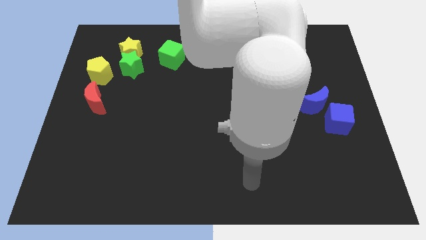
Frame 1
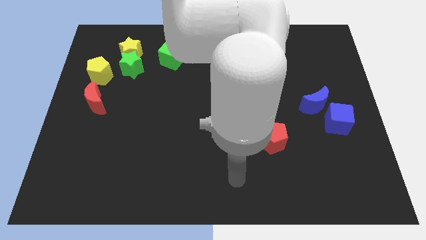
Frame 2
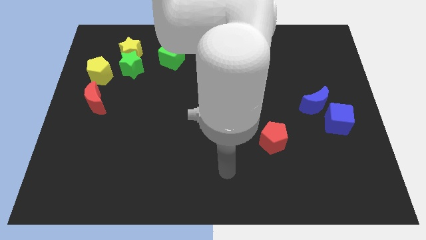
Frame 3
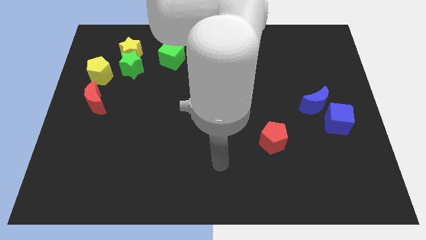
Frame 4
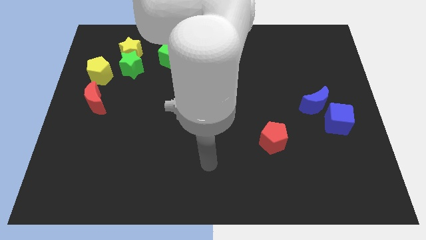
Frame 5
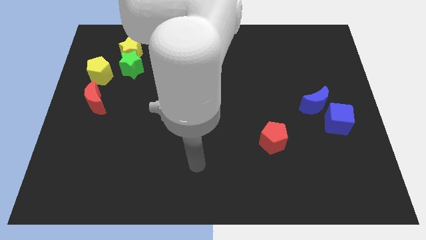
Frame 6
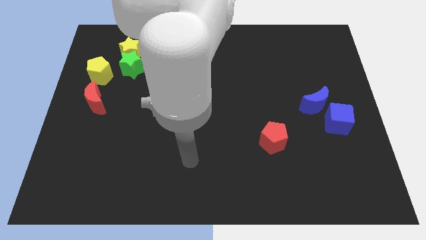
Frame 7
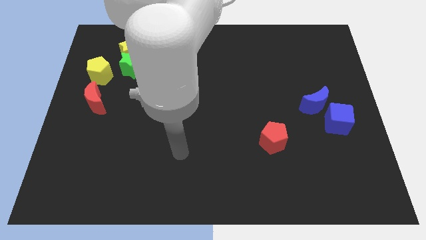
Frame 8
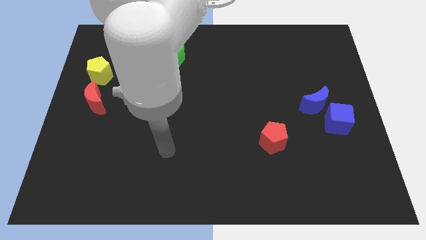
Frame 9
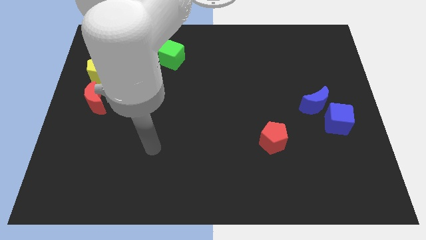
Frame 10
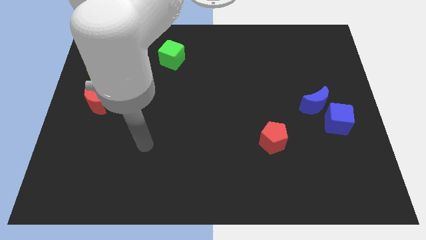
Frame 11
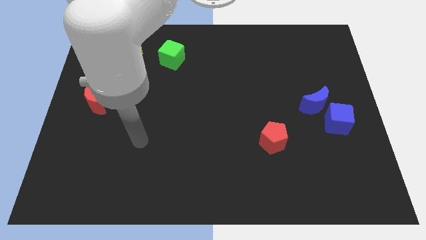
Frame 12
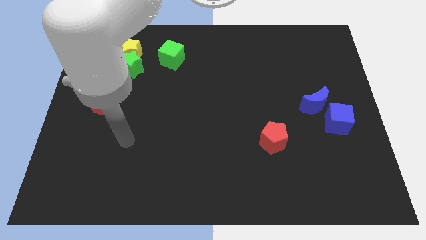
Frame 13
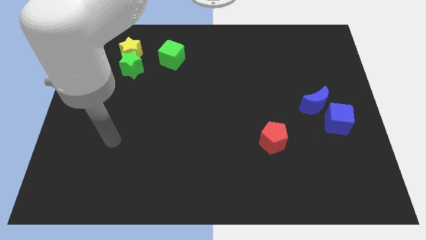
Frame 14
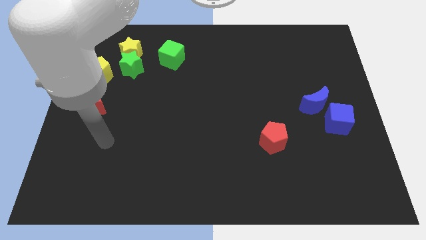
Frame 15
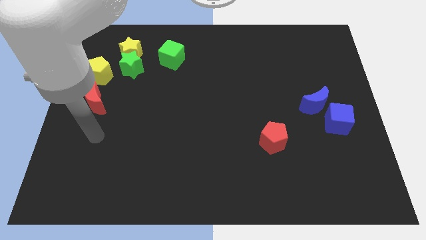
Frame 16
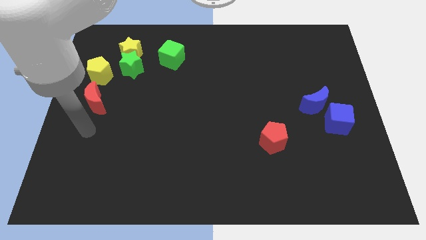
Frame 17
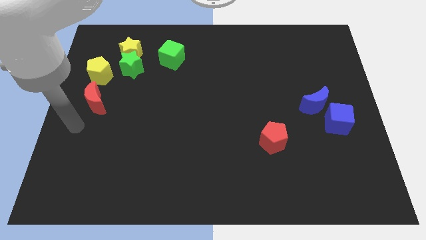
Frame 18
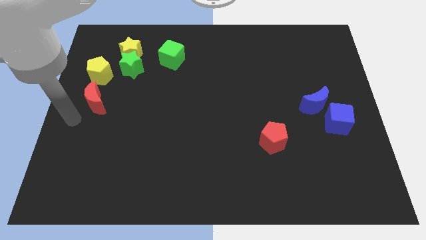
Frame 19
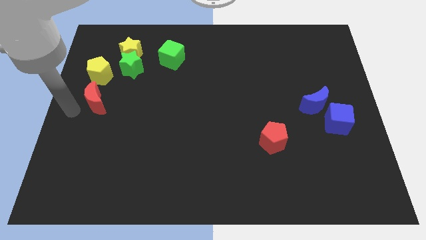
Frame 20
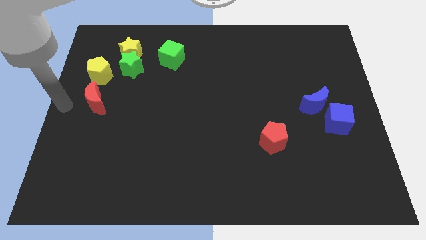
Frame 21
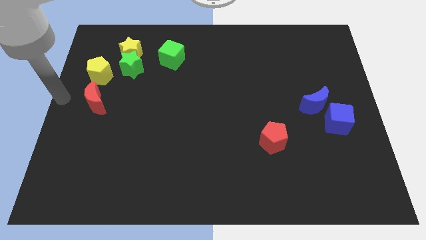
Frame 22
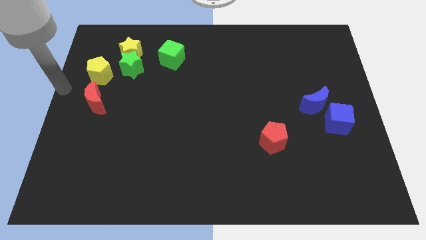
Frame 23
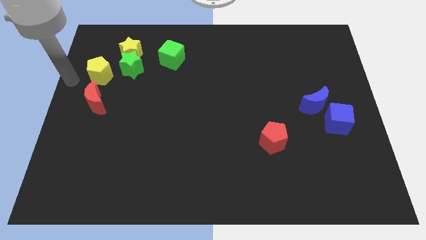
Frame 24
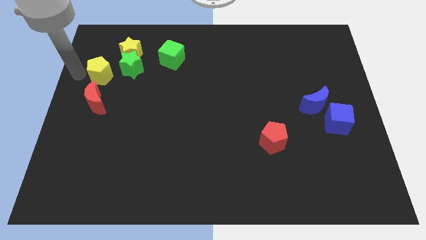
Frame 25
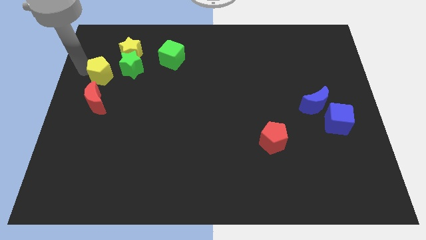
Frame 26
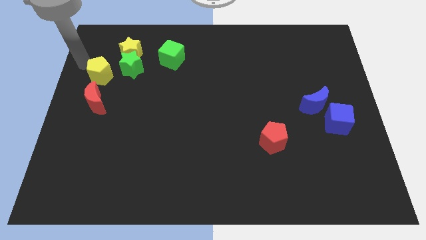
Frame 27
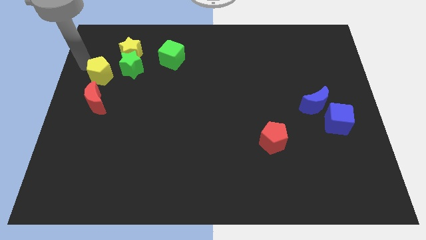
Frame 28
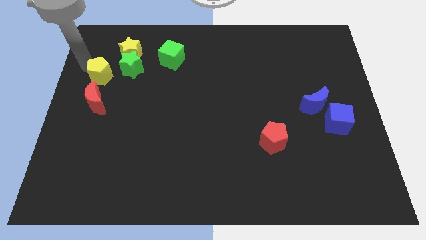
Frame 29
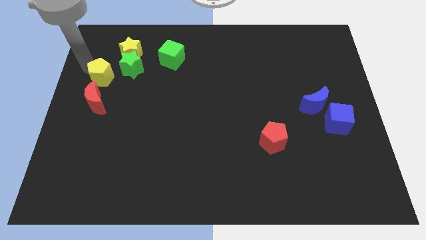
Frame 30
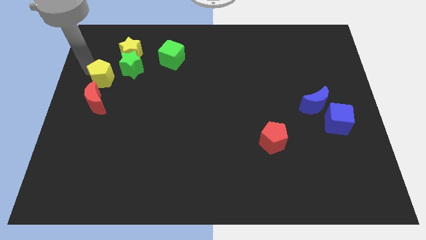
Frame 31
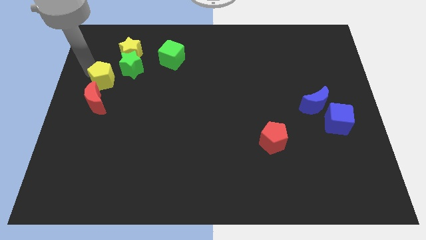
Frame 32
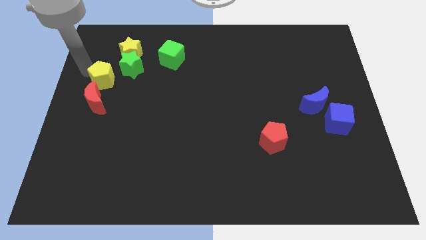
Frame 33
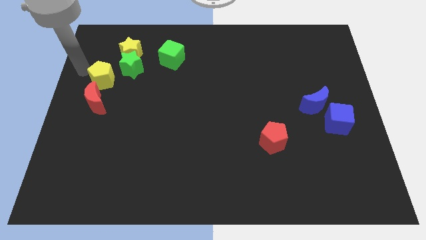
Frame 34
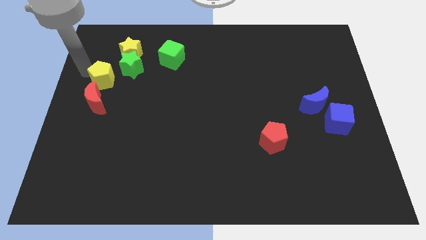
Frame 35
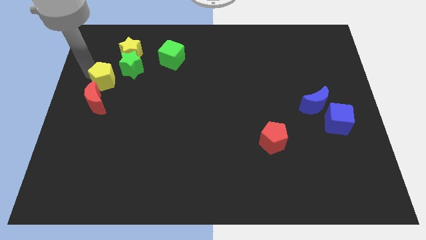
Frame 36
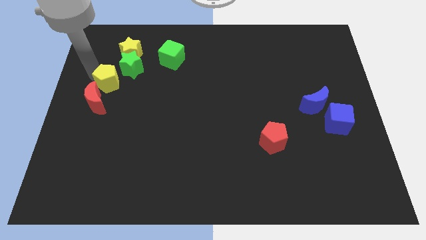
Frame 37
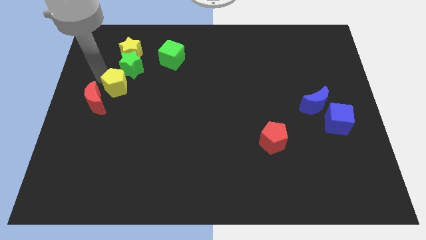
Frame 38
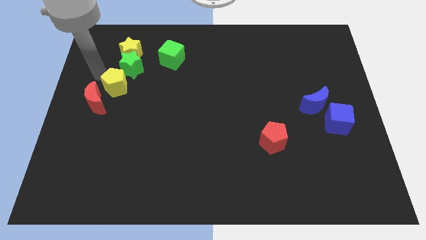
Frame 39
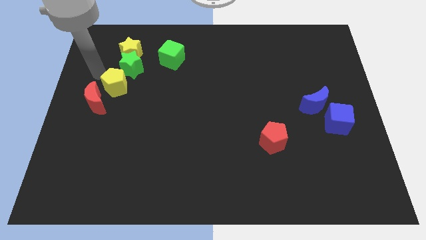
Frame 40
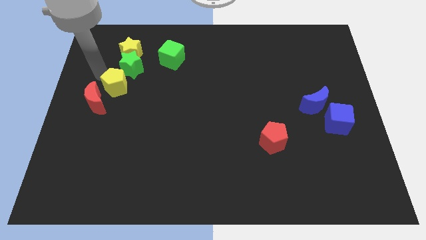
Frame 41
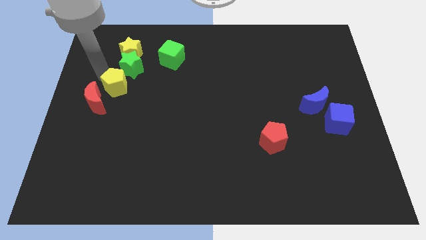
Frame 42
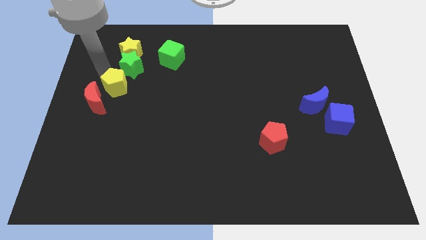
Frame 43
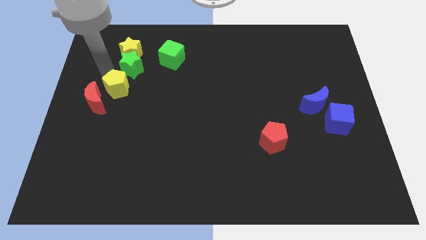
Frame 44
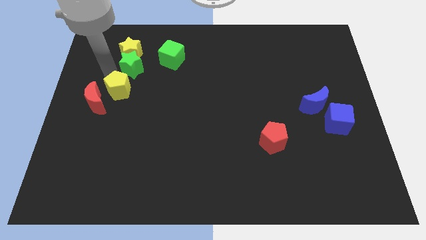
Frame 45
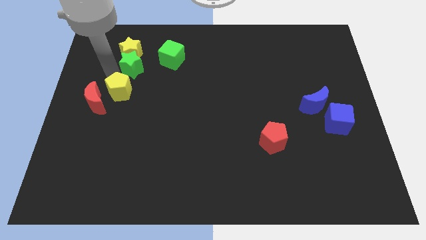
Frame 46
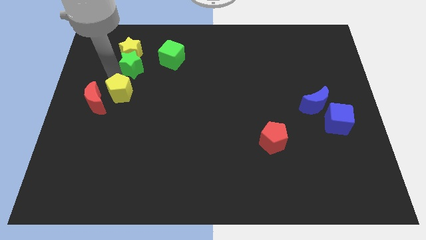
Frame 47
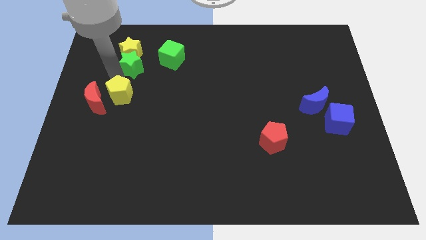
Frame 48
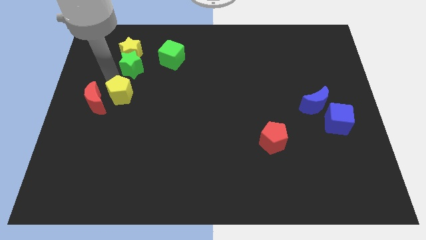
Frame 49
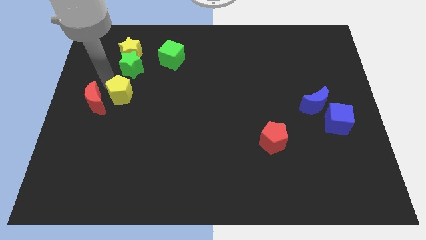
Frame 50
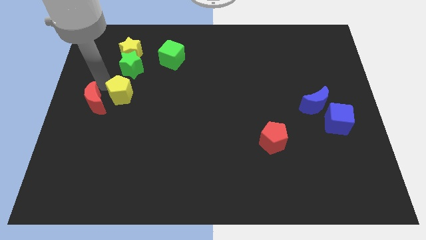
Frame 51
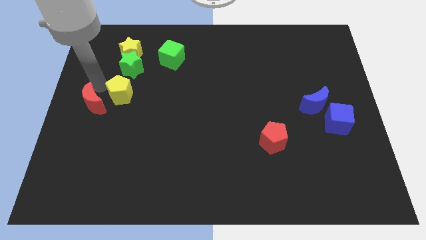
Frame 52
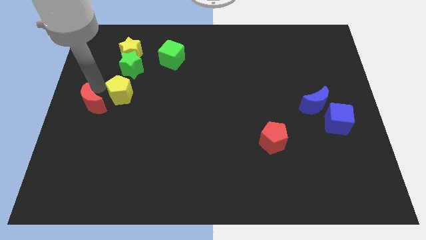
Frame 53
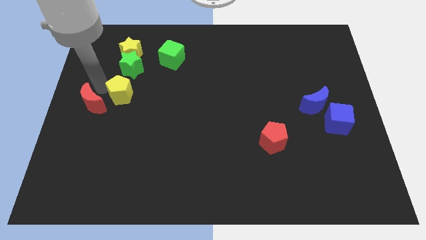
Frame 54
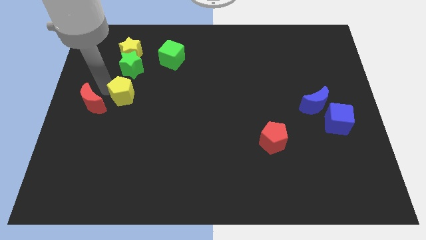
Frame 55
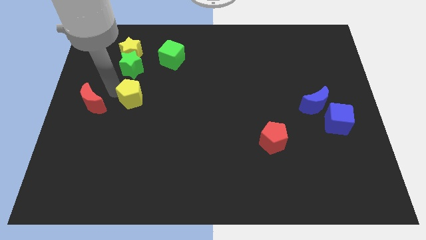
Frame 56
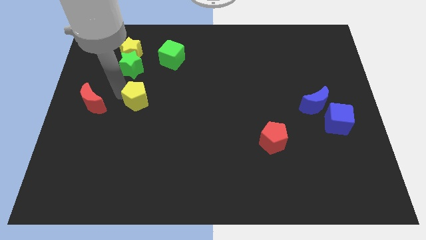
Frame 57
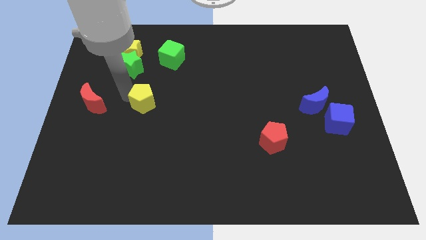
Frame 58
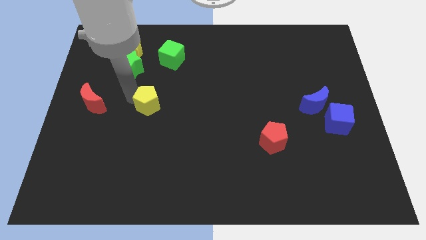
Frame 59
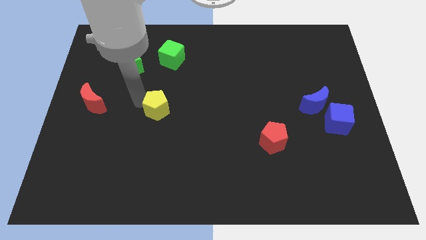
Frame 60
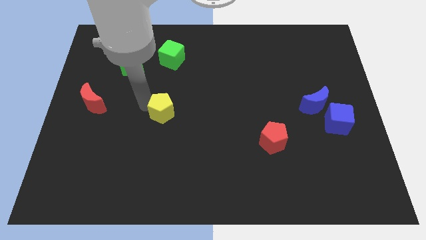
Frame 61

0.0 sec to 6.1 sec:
move the yellow pentagon to the middle

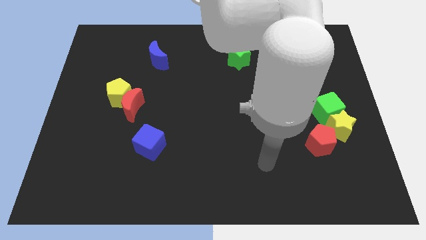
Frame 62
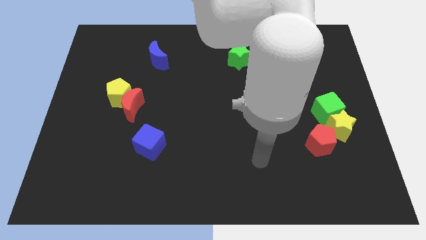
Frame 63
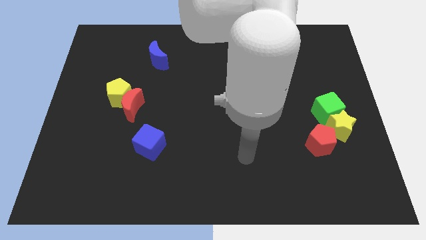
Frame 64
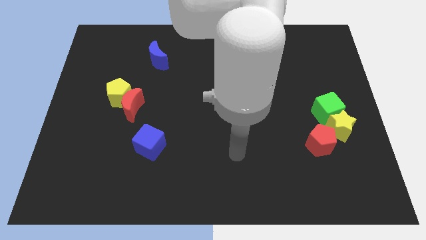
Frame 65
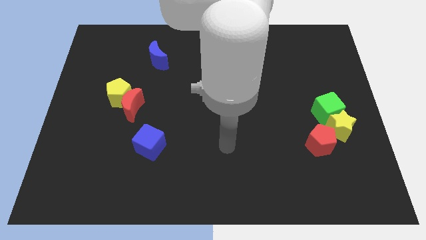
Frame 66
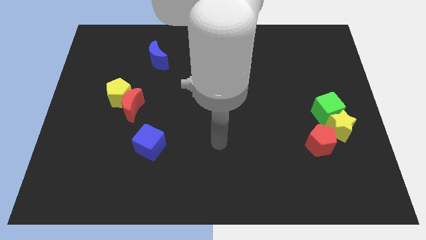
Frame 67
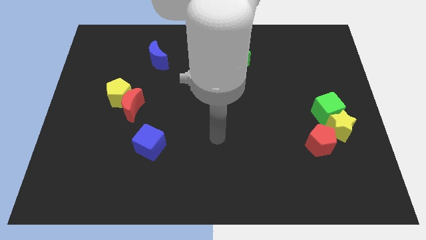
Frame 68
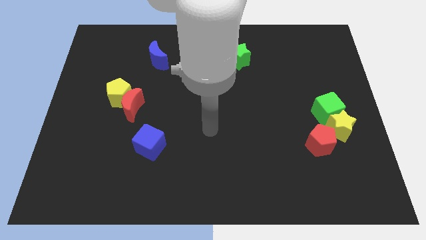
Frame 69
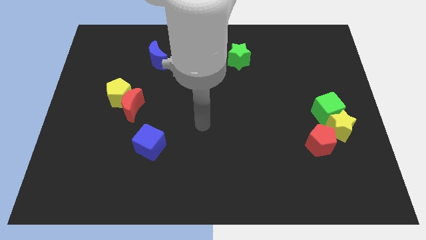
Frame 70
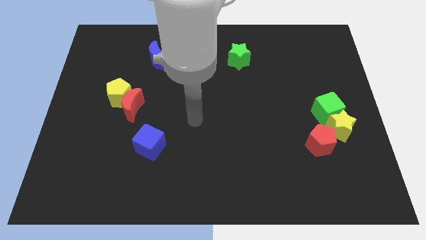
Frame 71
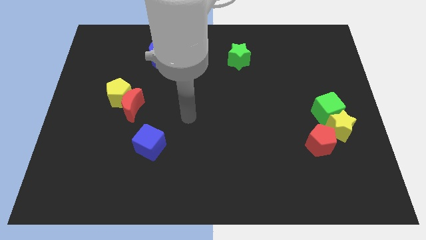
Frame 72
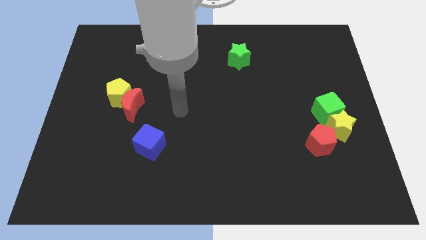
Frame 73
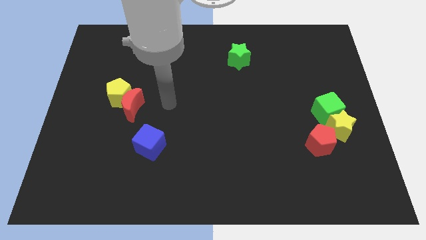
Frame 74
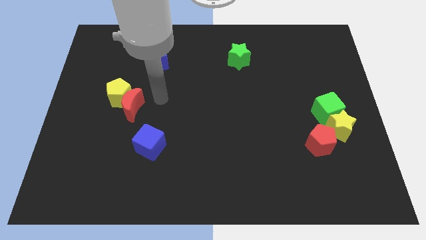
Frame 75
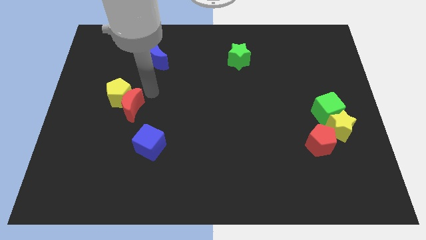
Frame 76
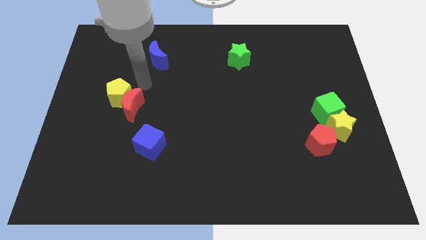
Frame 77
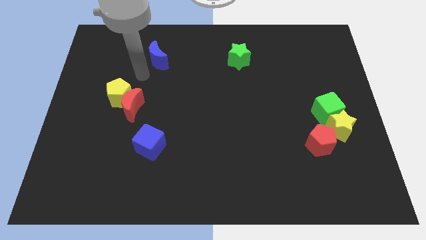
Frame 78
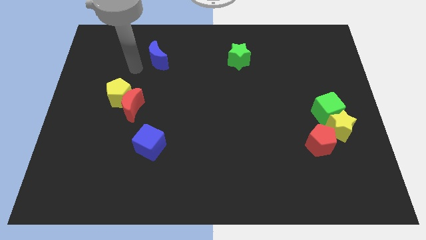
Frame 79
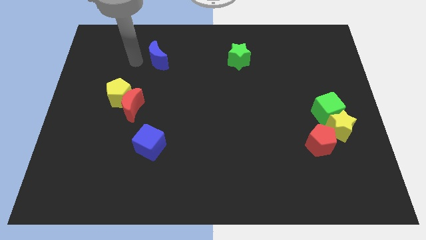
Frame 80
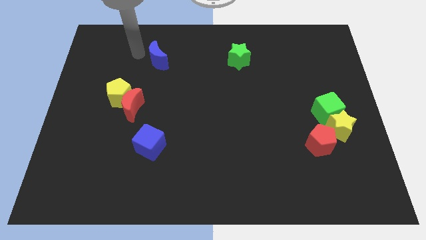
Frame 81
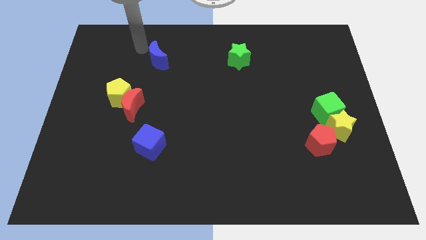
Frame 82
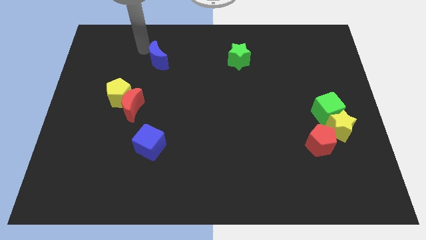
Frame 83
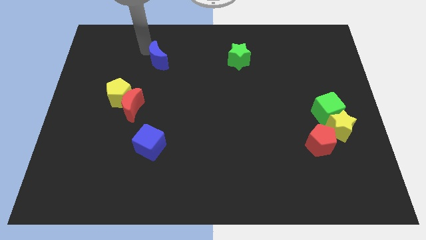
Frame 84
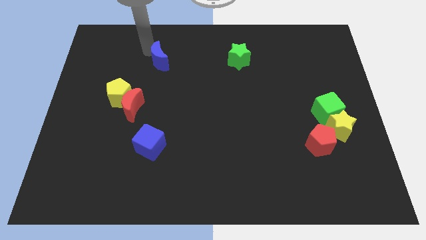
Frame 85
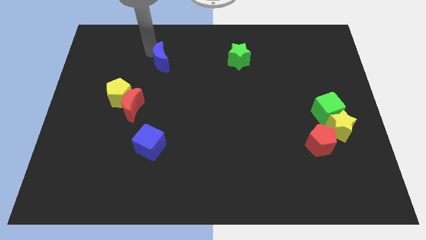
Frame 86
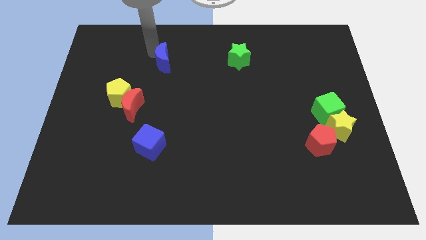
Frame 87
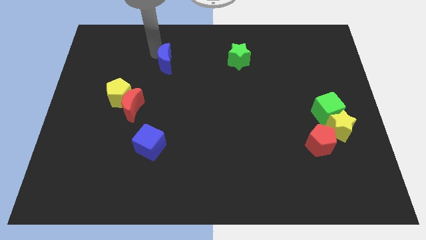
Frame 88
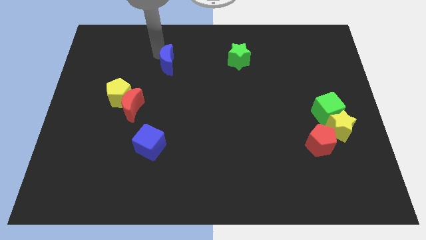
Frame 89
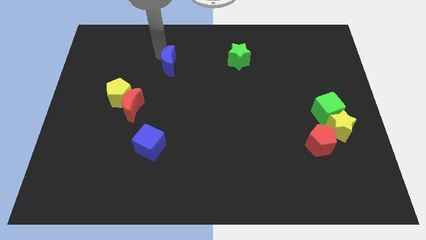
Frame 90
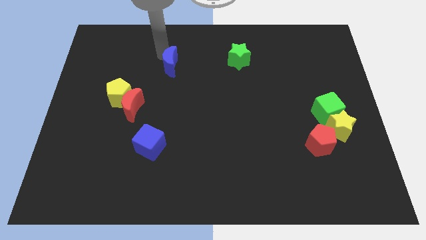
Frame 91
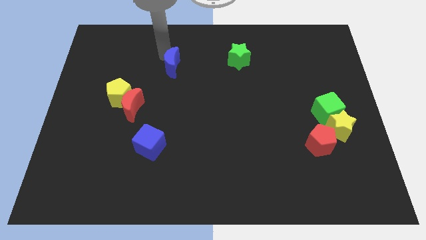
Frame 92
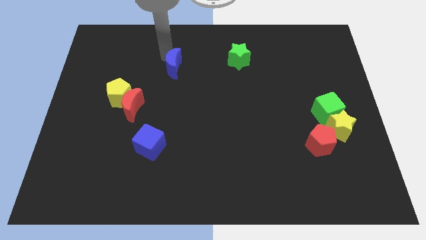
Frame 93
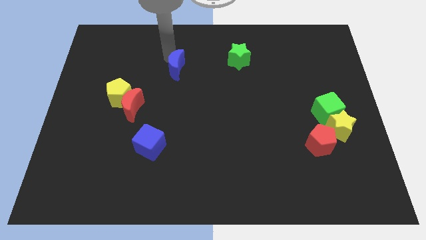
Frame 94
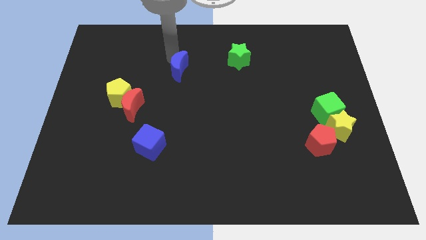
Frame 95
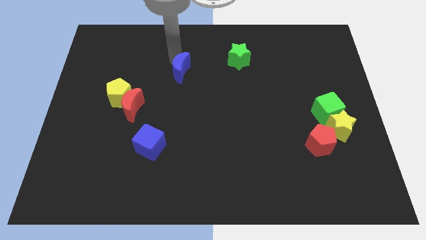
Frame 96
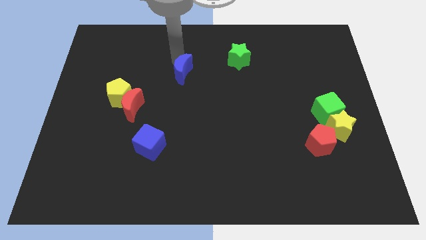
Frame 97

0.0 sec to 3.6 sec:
push the blue moon to the center
